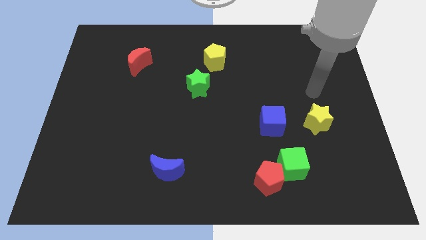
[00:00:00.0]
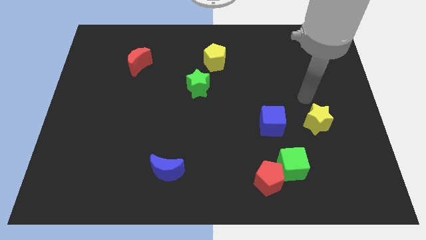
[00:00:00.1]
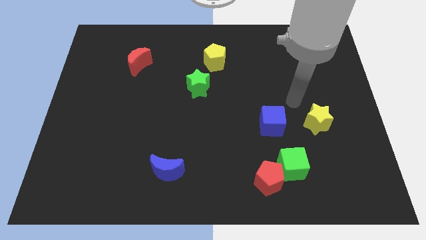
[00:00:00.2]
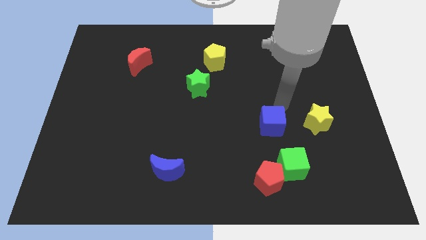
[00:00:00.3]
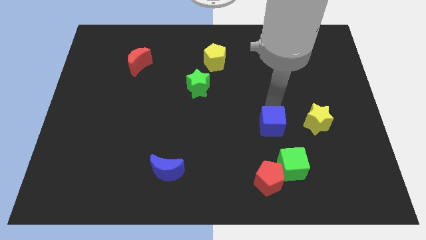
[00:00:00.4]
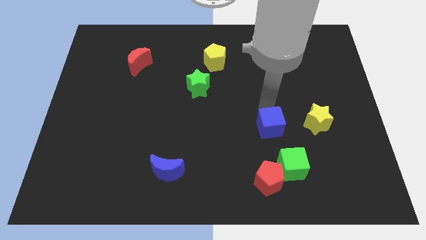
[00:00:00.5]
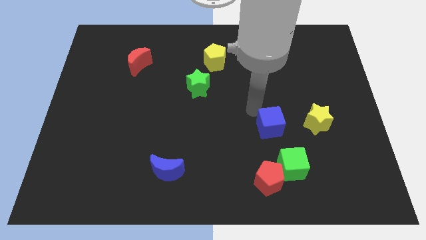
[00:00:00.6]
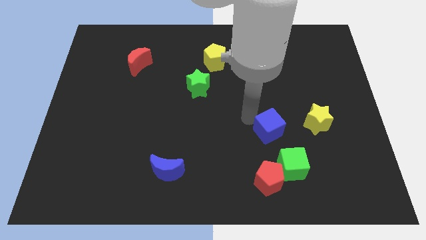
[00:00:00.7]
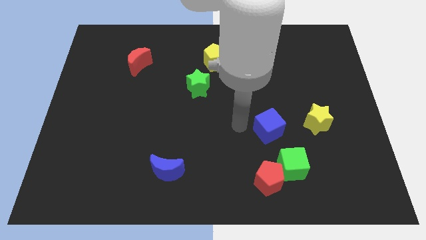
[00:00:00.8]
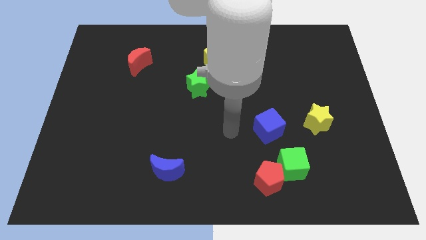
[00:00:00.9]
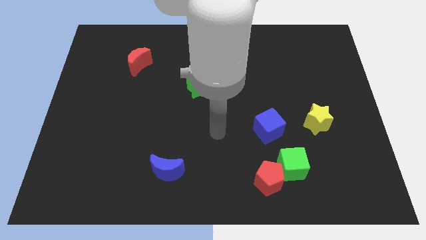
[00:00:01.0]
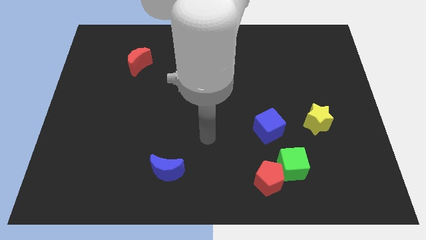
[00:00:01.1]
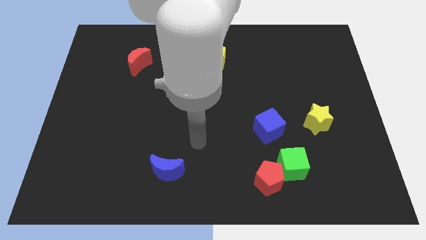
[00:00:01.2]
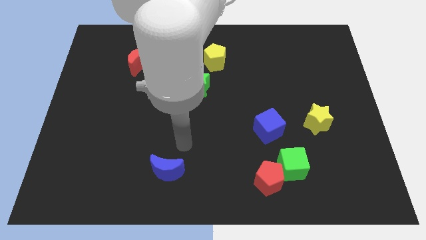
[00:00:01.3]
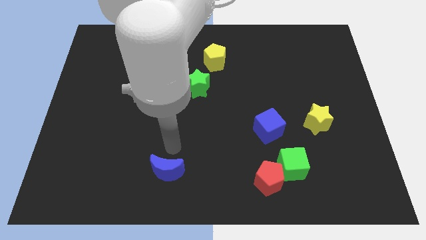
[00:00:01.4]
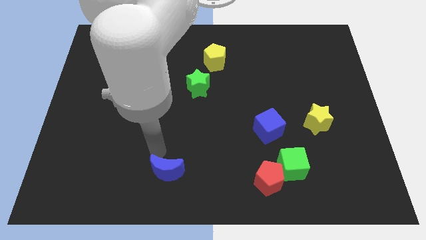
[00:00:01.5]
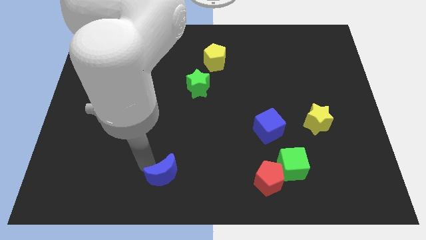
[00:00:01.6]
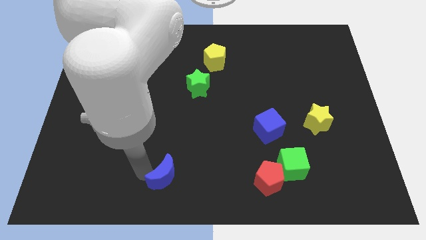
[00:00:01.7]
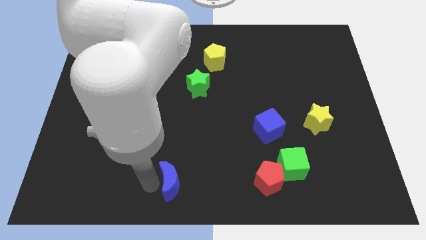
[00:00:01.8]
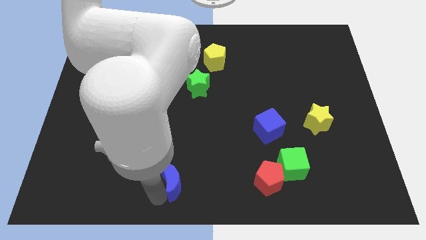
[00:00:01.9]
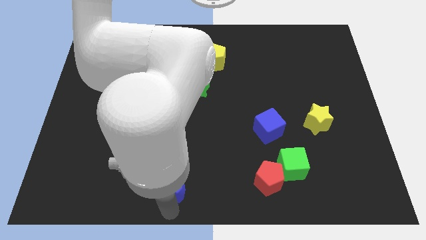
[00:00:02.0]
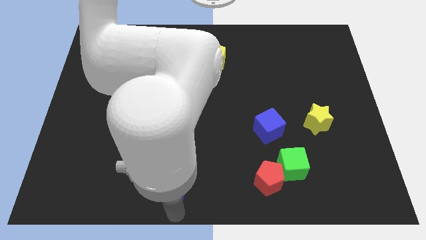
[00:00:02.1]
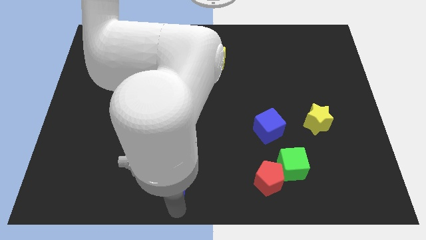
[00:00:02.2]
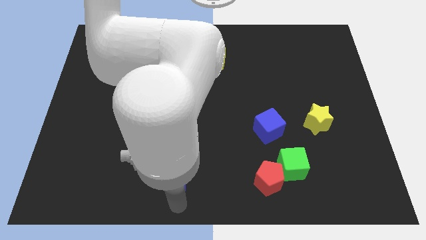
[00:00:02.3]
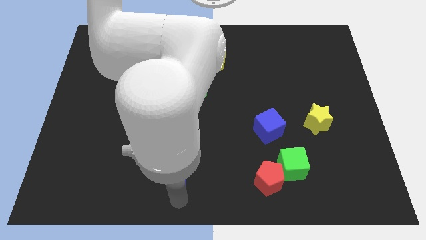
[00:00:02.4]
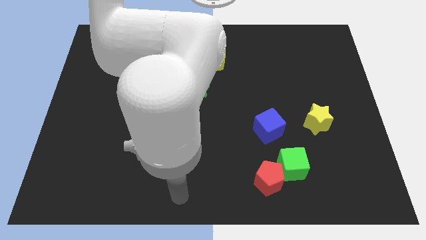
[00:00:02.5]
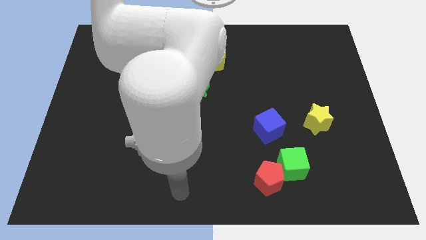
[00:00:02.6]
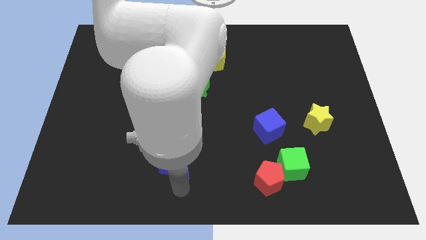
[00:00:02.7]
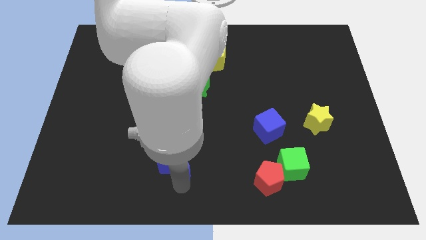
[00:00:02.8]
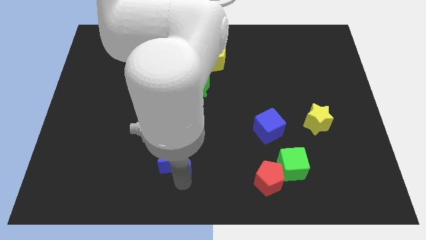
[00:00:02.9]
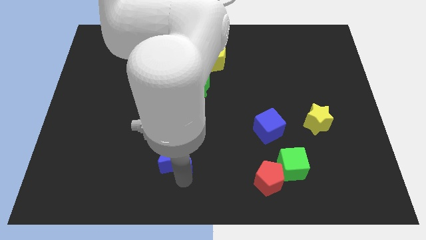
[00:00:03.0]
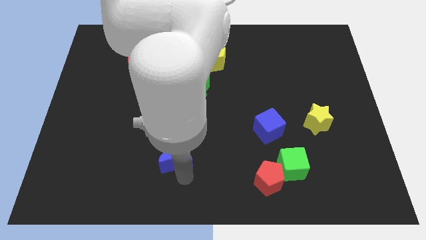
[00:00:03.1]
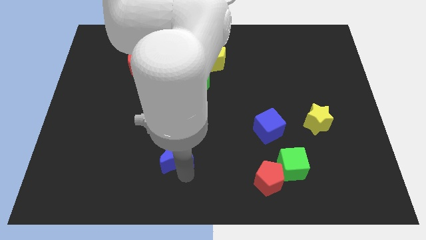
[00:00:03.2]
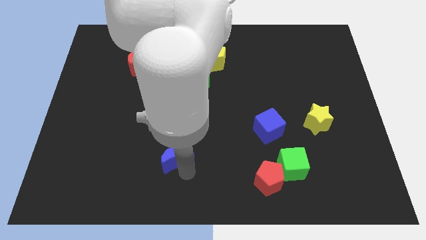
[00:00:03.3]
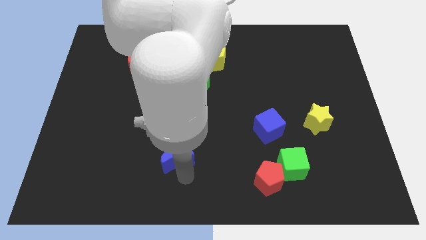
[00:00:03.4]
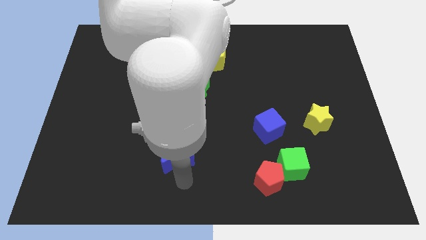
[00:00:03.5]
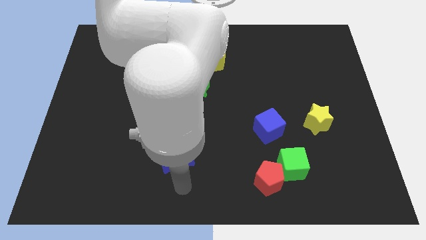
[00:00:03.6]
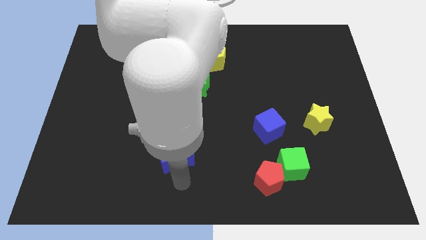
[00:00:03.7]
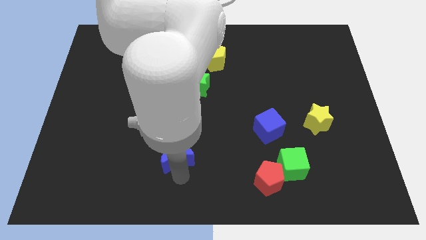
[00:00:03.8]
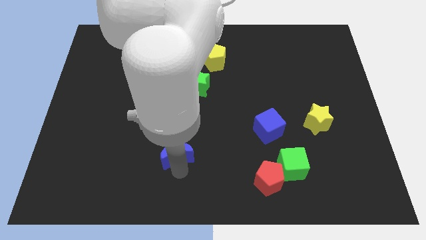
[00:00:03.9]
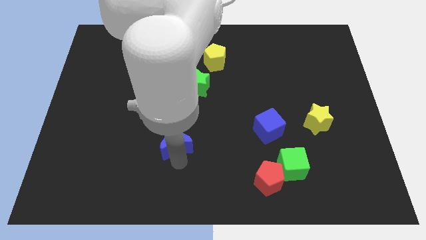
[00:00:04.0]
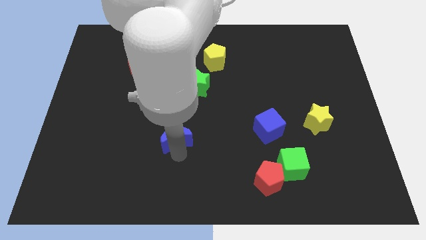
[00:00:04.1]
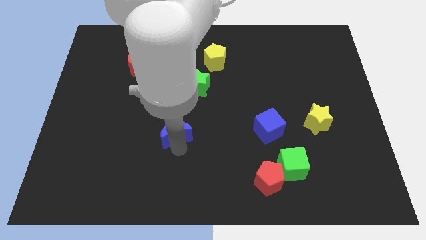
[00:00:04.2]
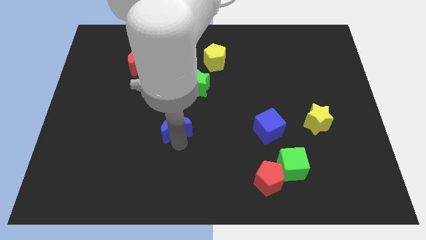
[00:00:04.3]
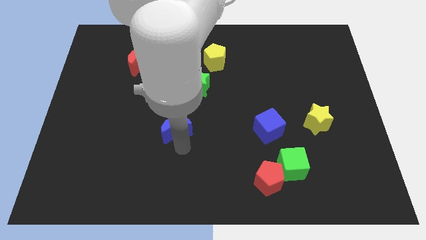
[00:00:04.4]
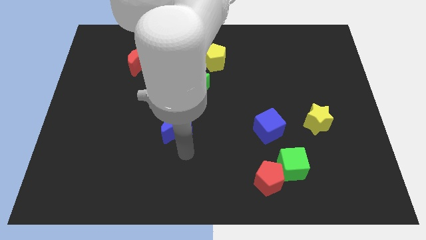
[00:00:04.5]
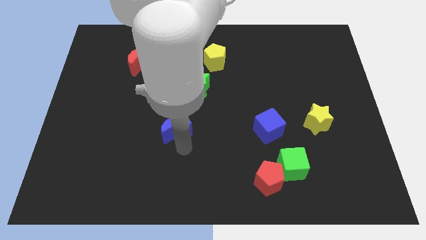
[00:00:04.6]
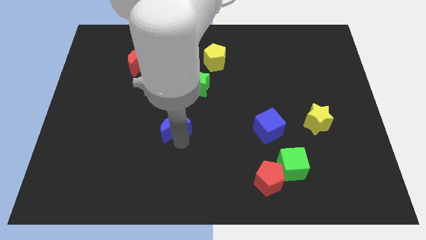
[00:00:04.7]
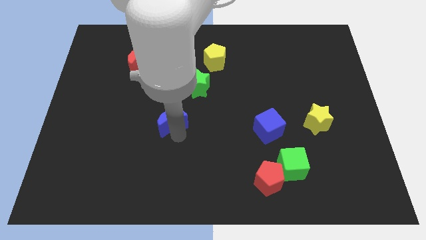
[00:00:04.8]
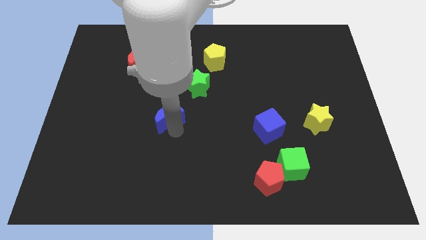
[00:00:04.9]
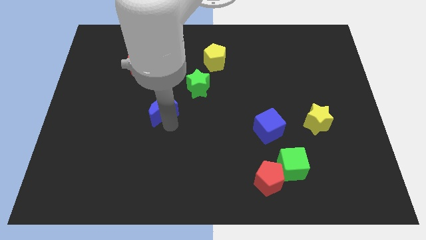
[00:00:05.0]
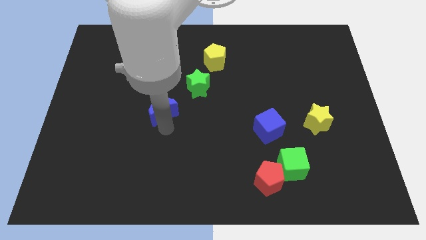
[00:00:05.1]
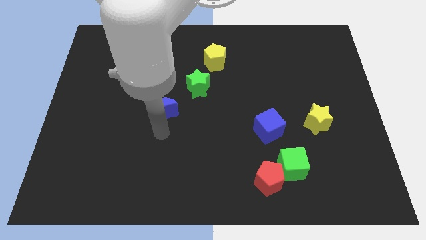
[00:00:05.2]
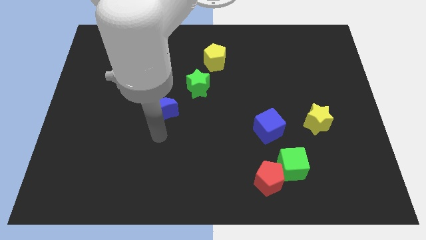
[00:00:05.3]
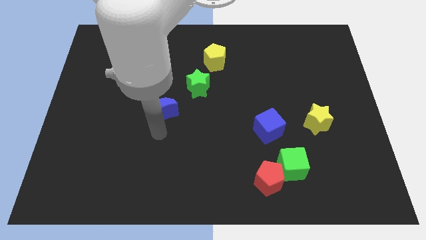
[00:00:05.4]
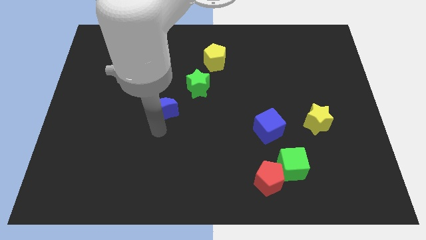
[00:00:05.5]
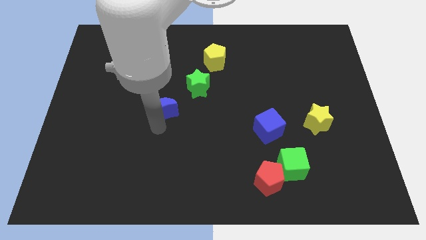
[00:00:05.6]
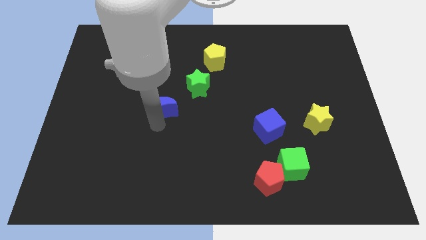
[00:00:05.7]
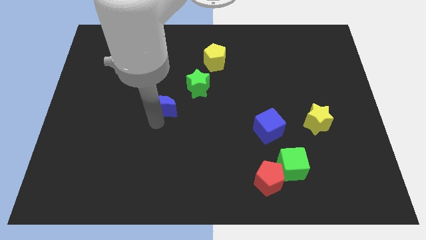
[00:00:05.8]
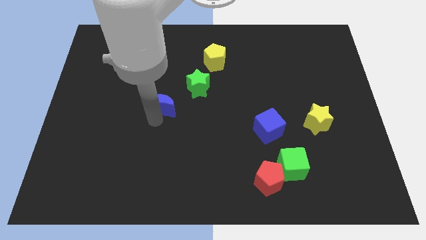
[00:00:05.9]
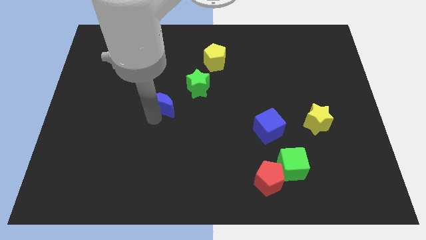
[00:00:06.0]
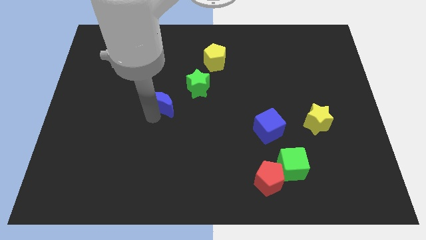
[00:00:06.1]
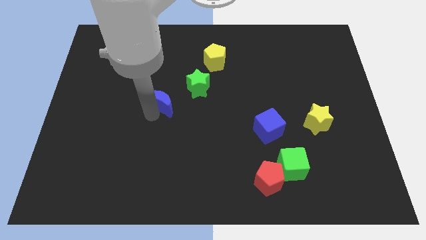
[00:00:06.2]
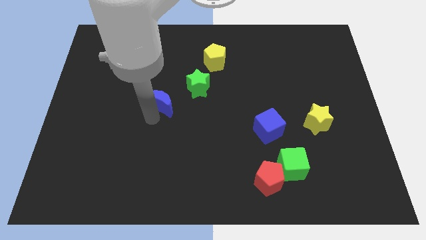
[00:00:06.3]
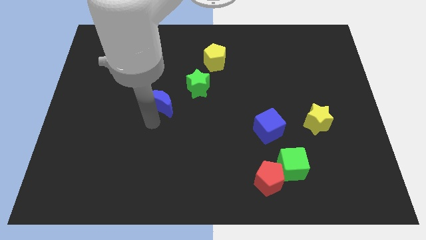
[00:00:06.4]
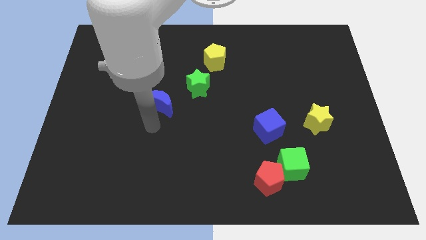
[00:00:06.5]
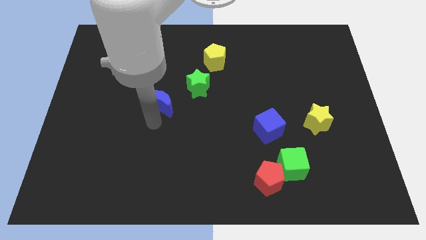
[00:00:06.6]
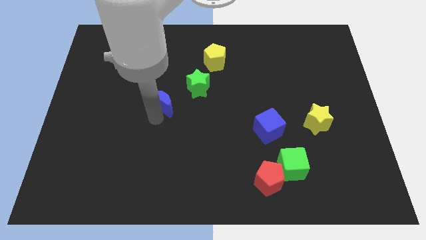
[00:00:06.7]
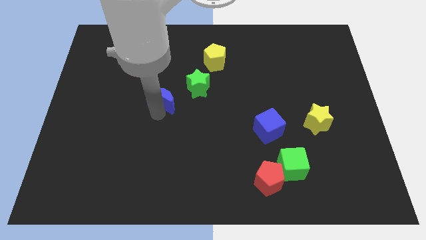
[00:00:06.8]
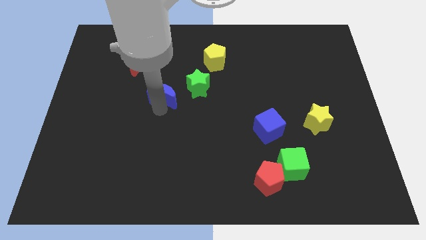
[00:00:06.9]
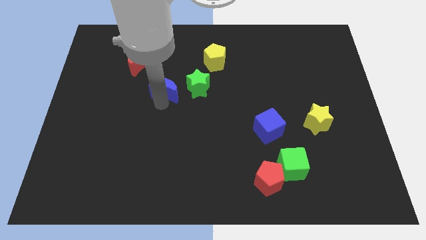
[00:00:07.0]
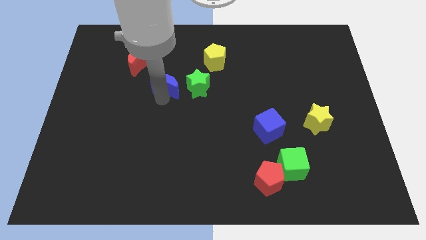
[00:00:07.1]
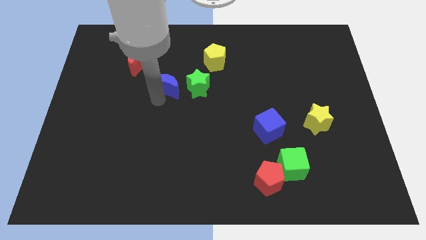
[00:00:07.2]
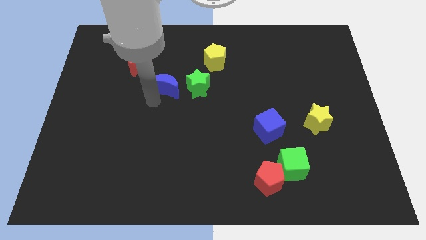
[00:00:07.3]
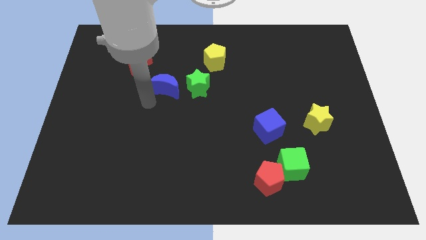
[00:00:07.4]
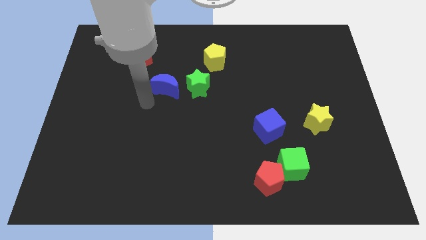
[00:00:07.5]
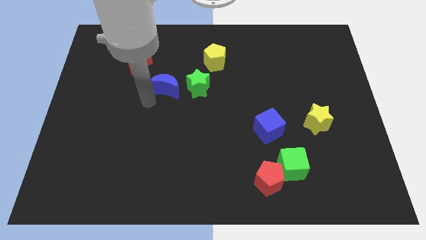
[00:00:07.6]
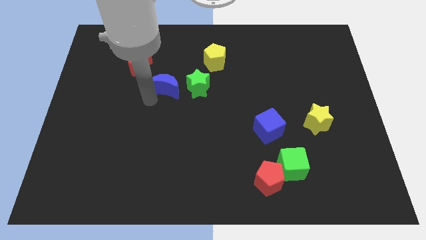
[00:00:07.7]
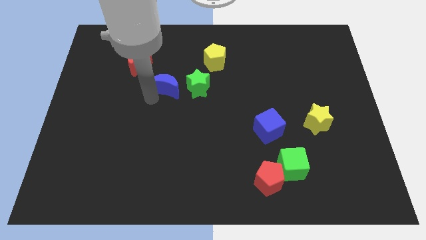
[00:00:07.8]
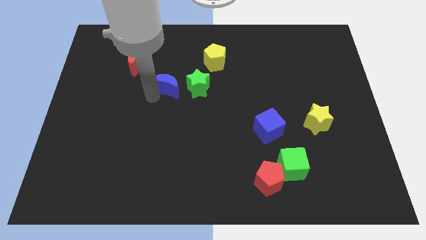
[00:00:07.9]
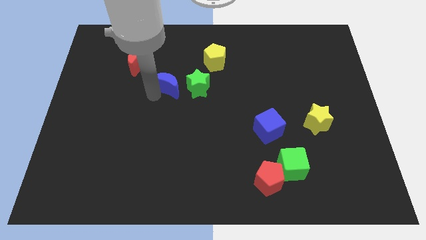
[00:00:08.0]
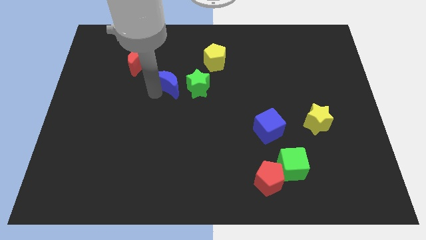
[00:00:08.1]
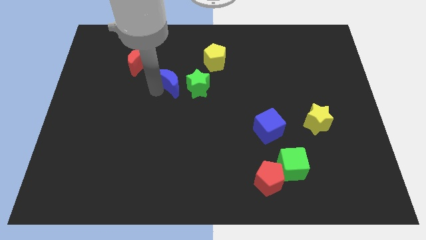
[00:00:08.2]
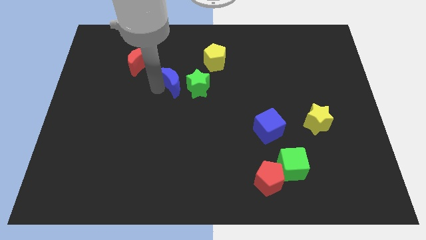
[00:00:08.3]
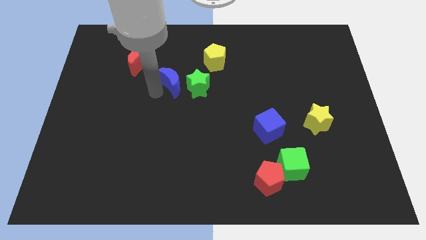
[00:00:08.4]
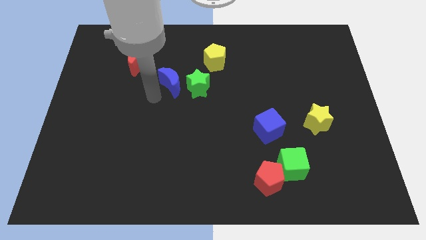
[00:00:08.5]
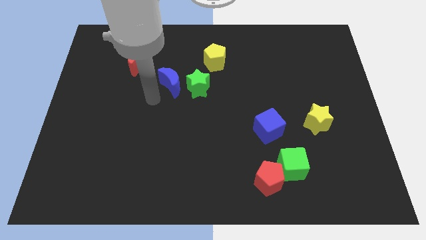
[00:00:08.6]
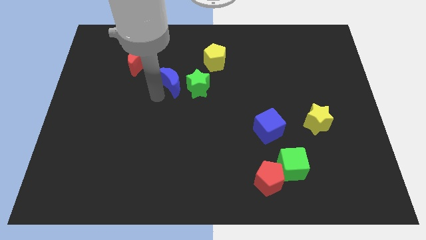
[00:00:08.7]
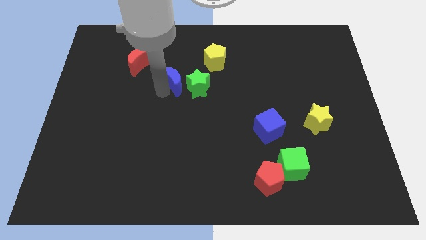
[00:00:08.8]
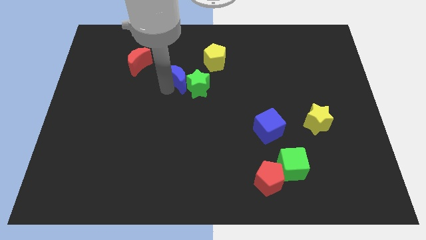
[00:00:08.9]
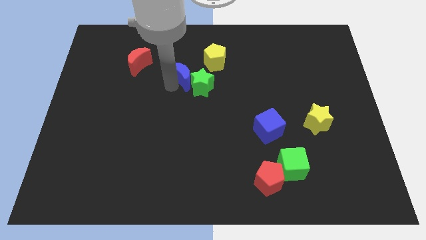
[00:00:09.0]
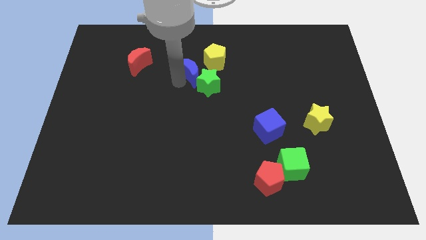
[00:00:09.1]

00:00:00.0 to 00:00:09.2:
move the blue moon to the top of the green star
